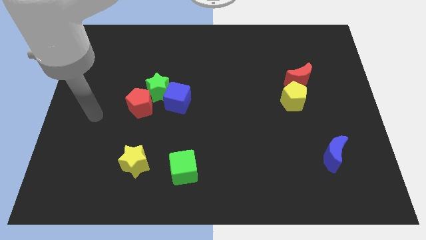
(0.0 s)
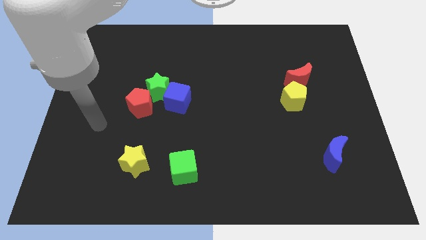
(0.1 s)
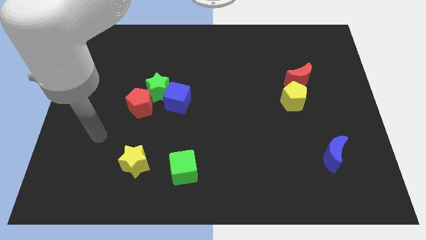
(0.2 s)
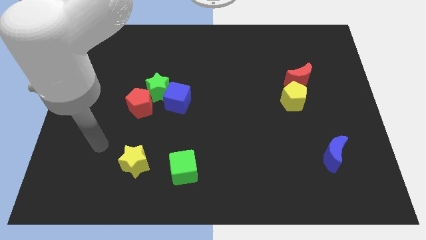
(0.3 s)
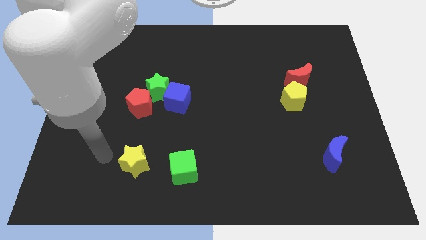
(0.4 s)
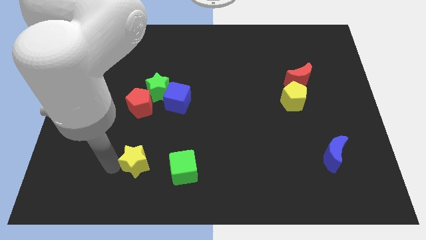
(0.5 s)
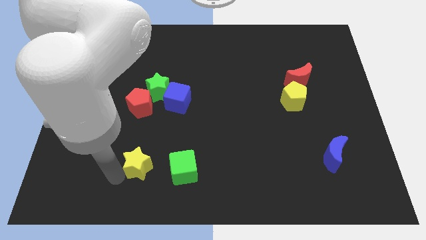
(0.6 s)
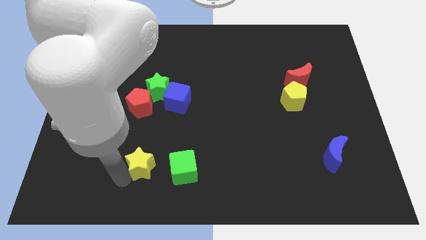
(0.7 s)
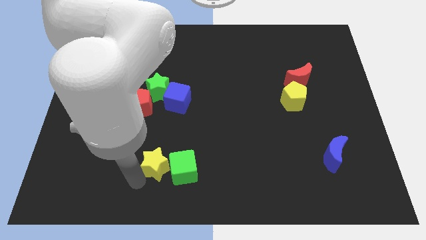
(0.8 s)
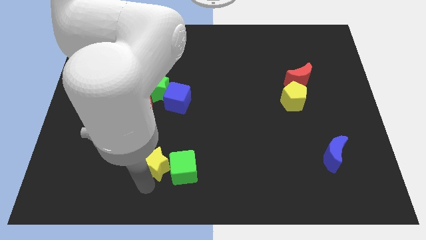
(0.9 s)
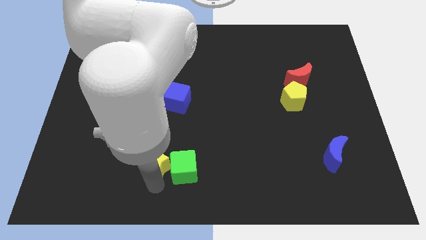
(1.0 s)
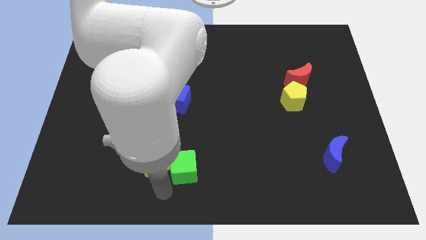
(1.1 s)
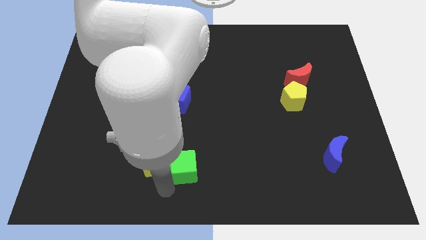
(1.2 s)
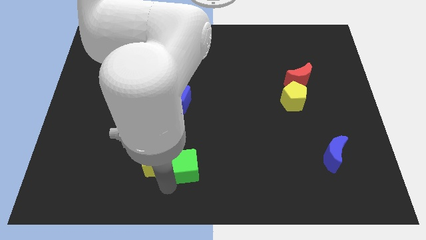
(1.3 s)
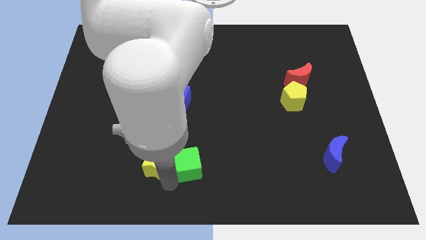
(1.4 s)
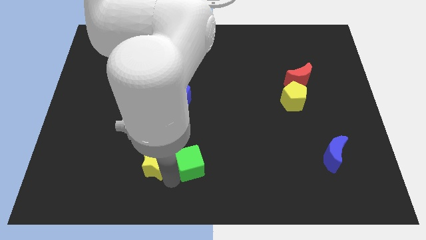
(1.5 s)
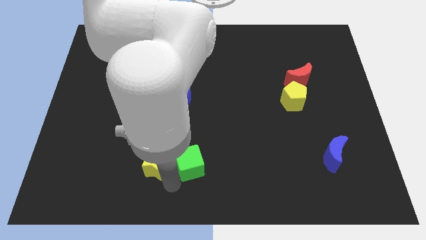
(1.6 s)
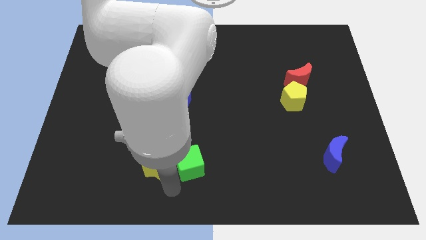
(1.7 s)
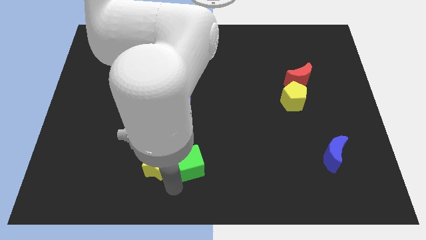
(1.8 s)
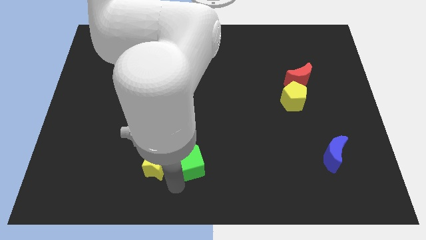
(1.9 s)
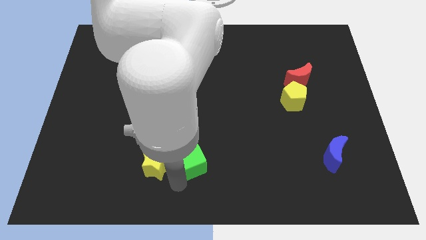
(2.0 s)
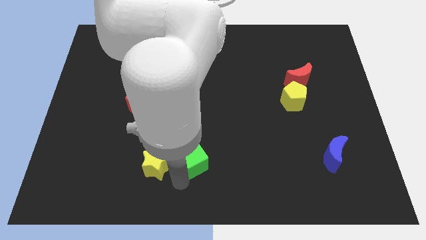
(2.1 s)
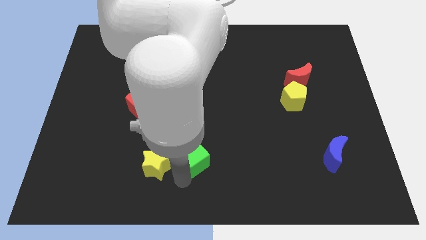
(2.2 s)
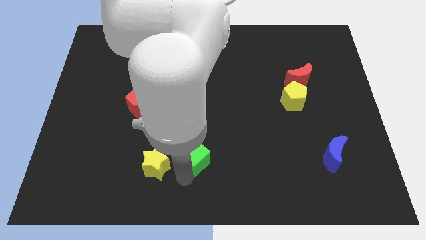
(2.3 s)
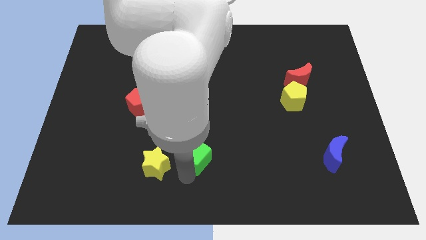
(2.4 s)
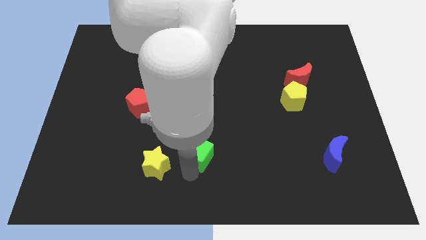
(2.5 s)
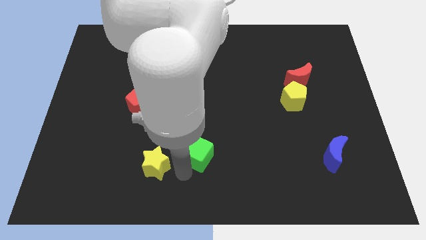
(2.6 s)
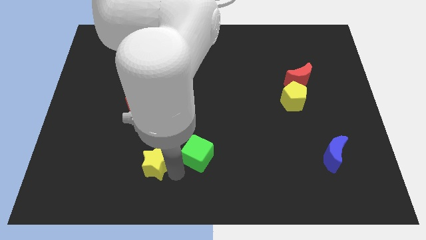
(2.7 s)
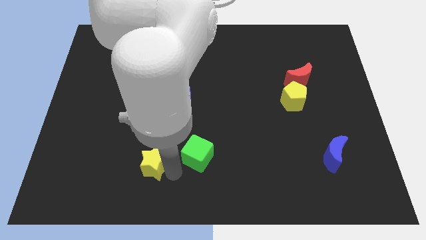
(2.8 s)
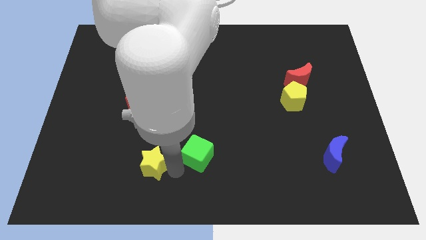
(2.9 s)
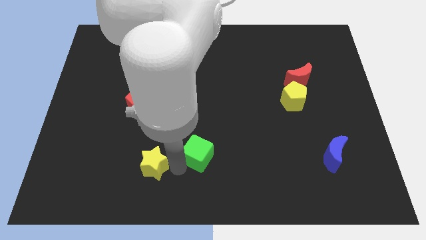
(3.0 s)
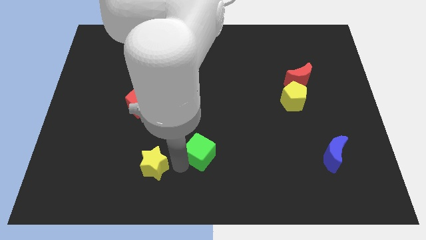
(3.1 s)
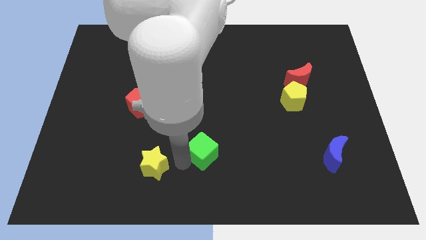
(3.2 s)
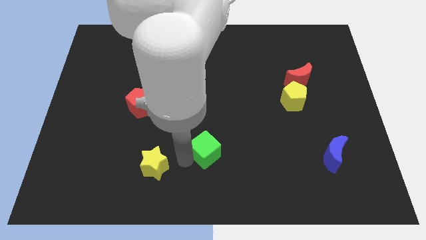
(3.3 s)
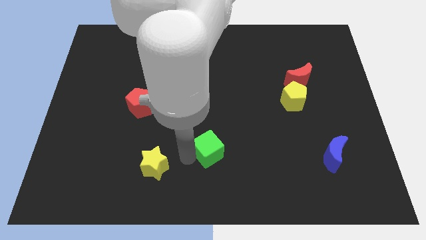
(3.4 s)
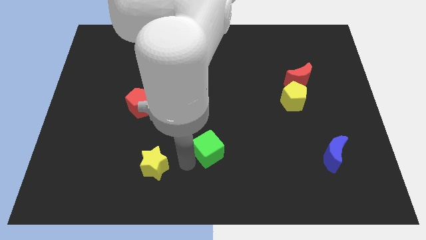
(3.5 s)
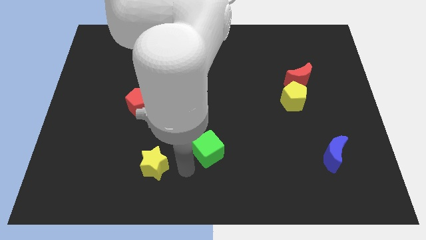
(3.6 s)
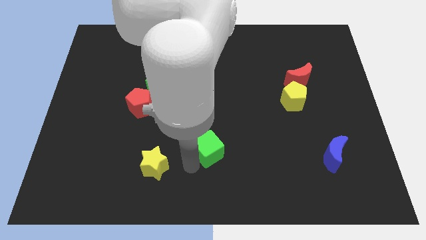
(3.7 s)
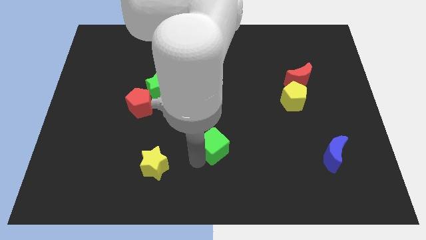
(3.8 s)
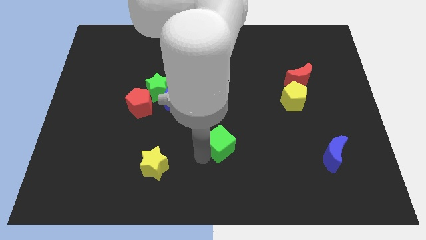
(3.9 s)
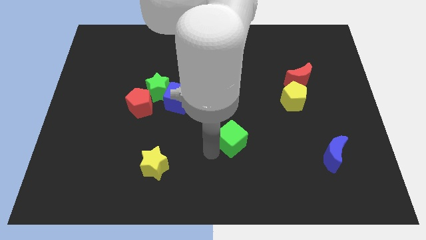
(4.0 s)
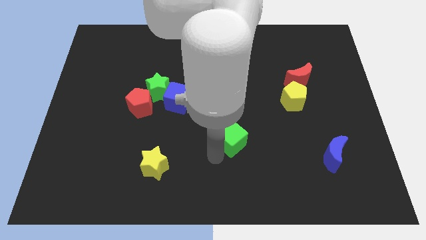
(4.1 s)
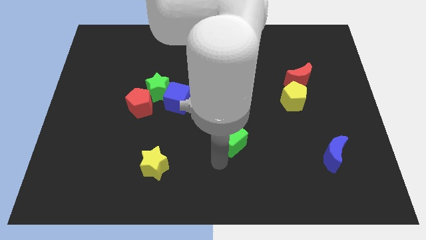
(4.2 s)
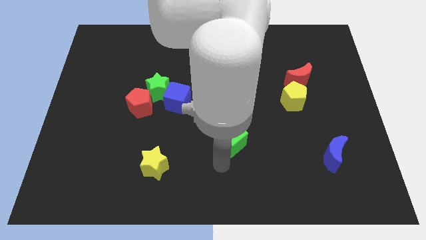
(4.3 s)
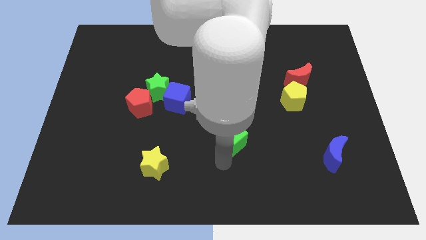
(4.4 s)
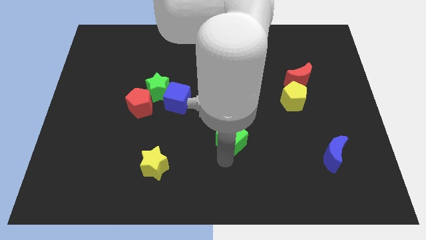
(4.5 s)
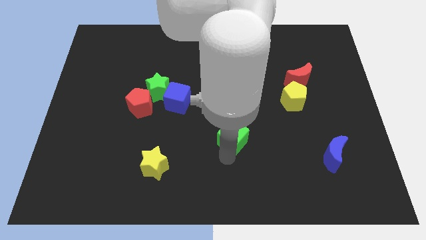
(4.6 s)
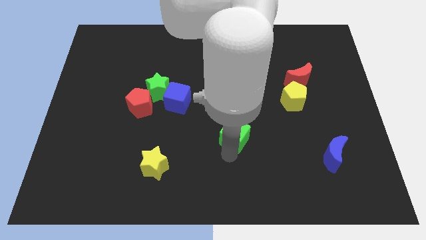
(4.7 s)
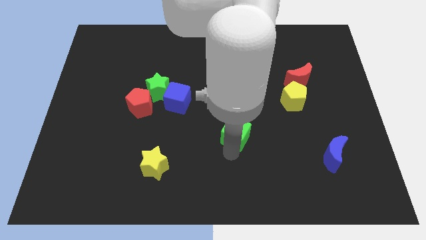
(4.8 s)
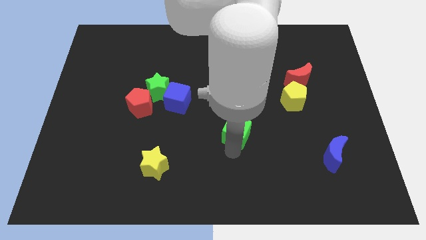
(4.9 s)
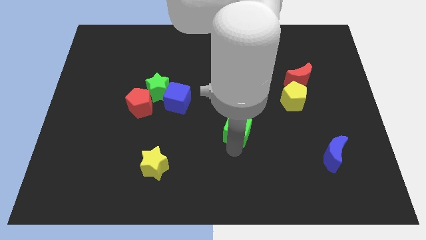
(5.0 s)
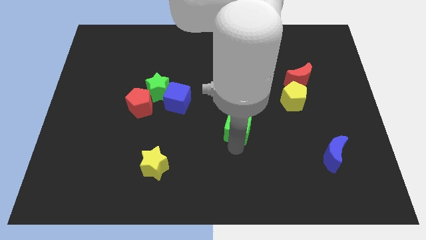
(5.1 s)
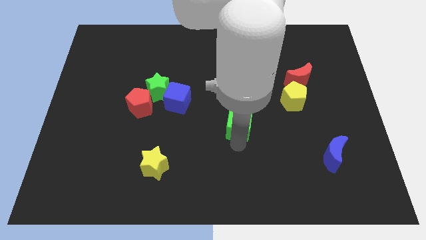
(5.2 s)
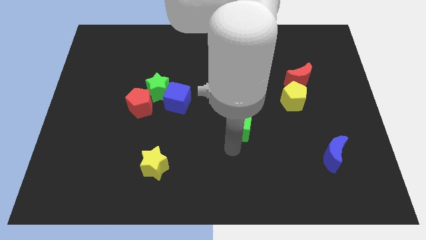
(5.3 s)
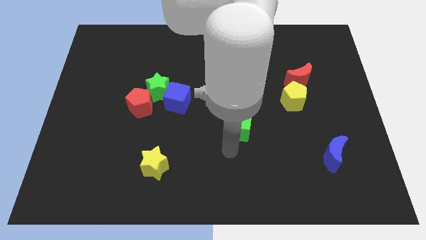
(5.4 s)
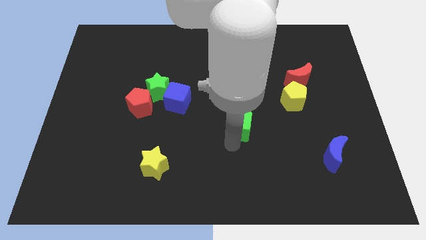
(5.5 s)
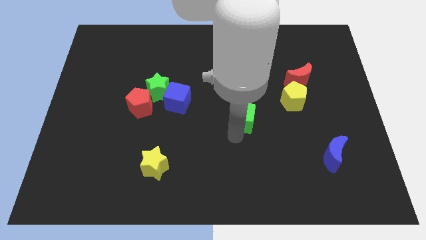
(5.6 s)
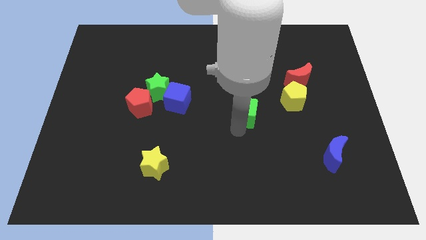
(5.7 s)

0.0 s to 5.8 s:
put the green cube to the left side of the yellow pentagon

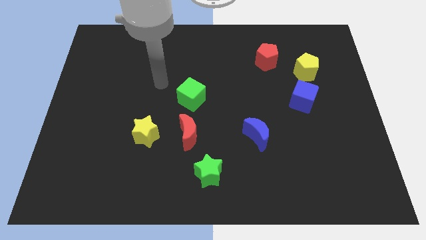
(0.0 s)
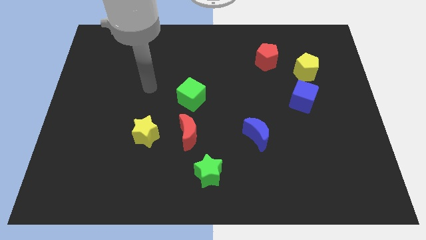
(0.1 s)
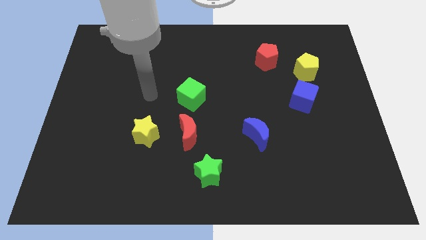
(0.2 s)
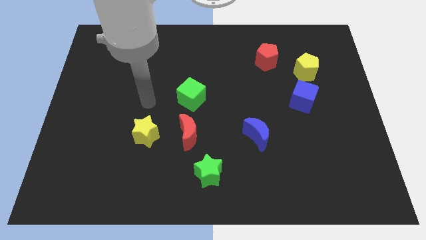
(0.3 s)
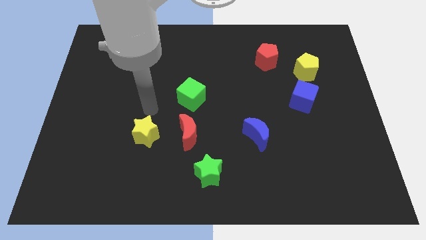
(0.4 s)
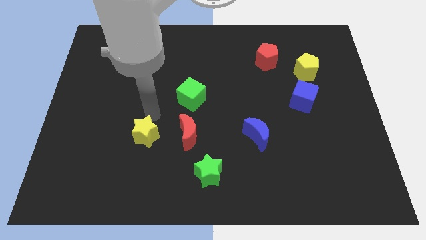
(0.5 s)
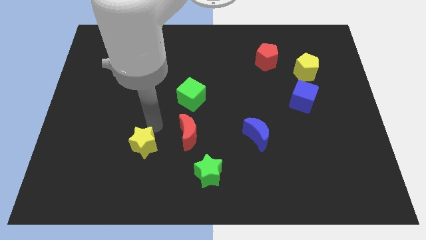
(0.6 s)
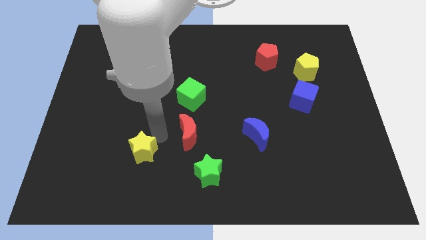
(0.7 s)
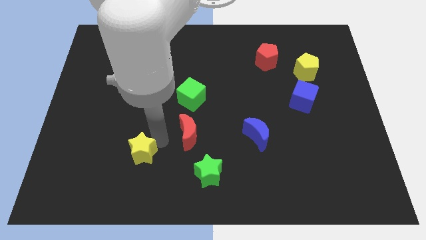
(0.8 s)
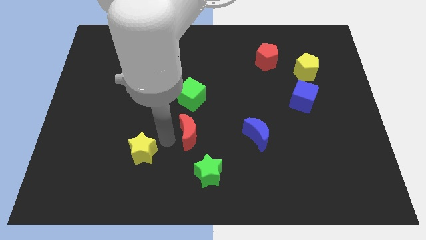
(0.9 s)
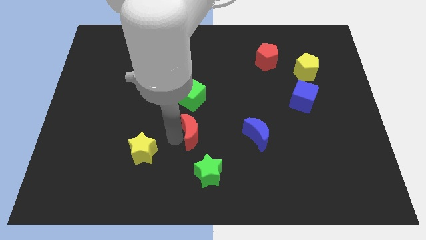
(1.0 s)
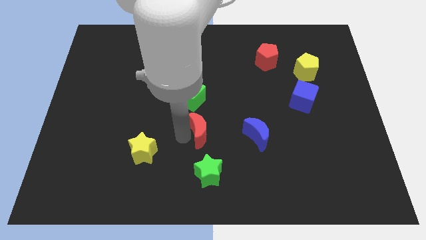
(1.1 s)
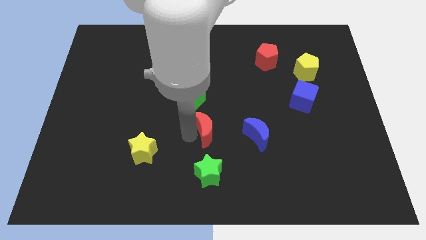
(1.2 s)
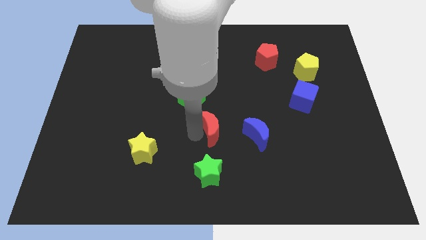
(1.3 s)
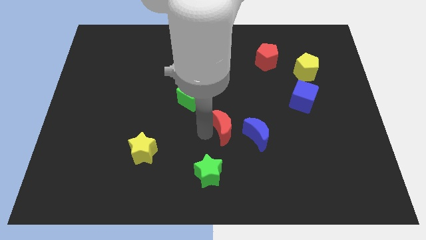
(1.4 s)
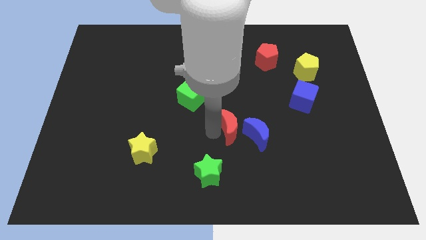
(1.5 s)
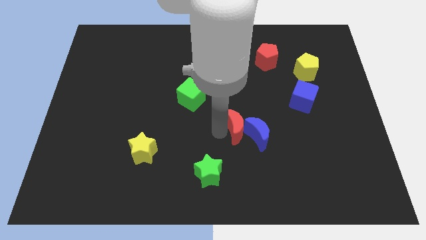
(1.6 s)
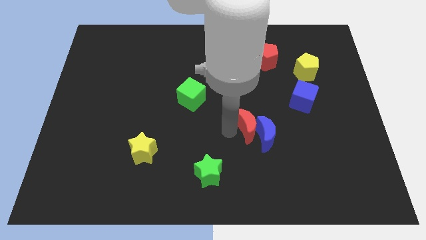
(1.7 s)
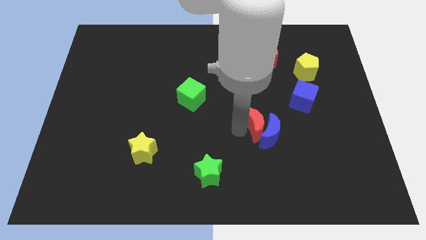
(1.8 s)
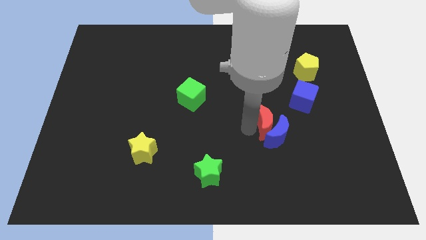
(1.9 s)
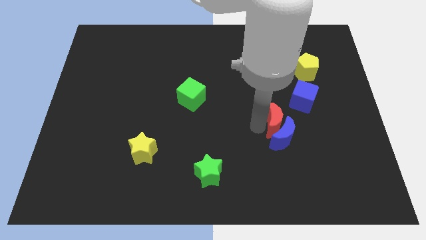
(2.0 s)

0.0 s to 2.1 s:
slide the red moon to the top right side of the blue moon
